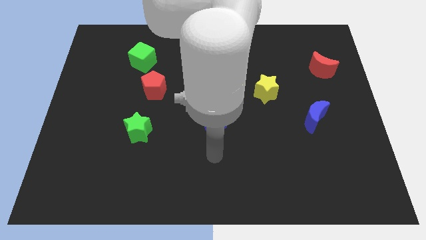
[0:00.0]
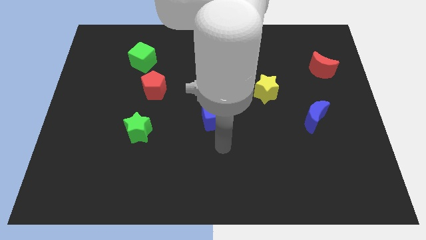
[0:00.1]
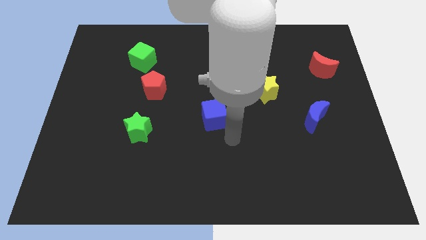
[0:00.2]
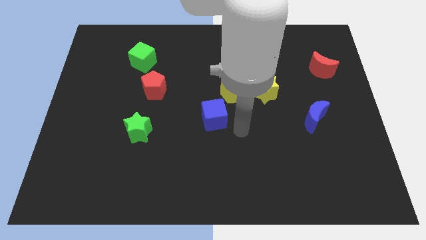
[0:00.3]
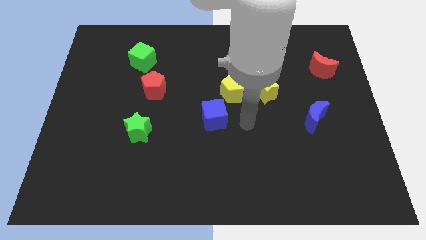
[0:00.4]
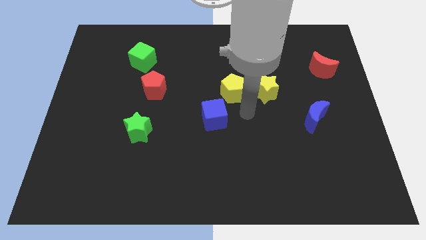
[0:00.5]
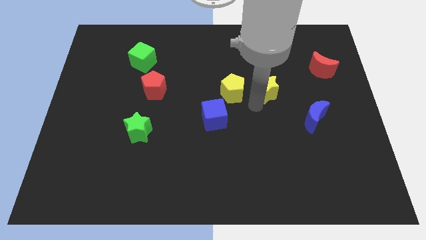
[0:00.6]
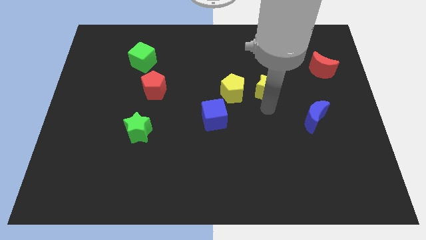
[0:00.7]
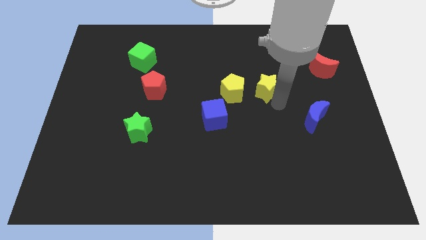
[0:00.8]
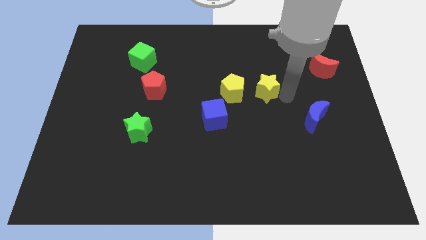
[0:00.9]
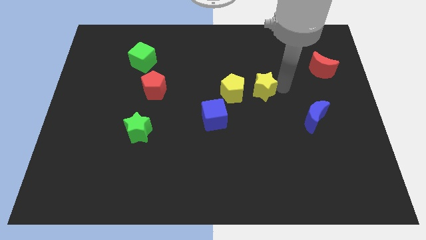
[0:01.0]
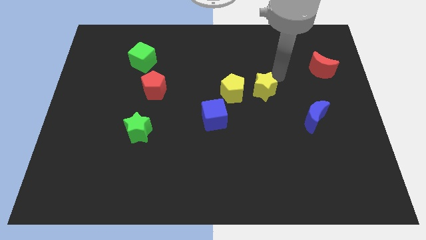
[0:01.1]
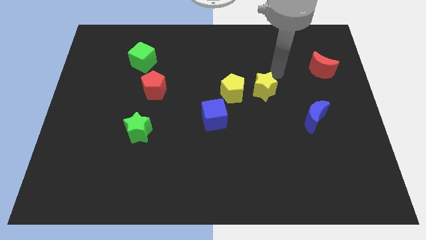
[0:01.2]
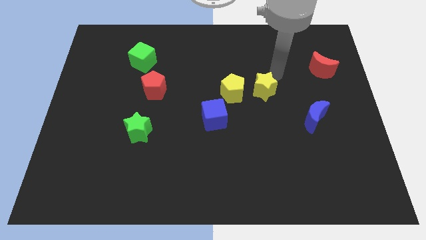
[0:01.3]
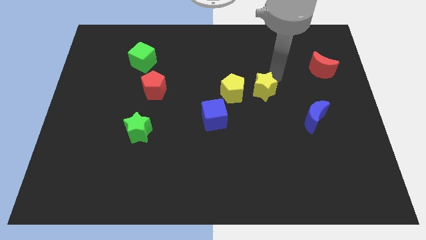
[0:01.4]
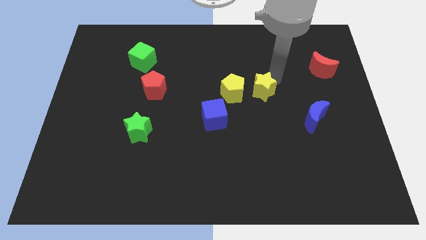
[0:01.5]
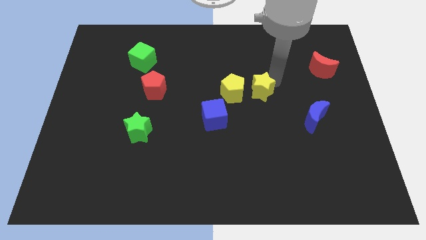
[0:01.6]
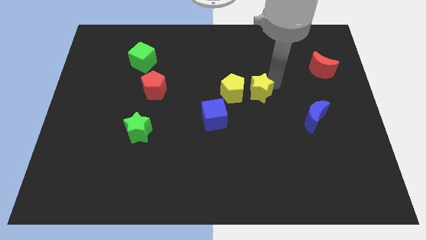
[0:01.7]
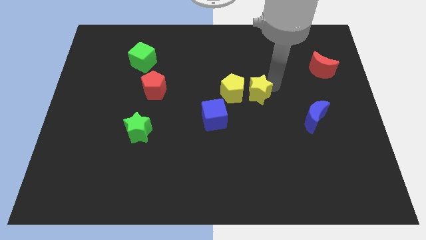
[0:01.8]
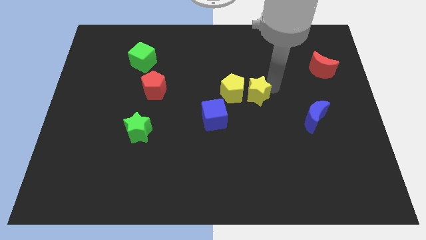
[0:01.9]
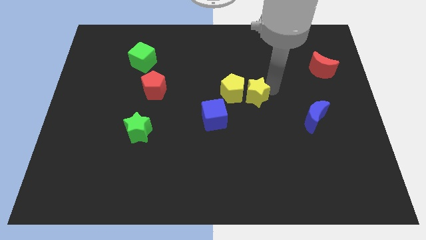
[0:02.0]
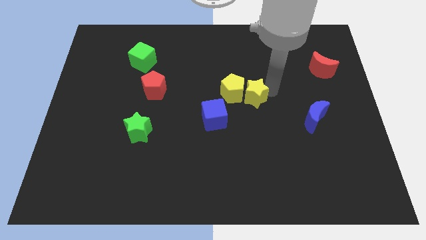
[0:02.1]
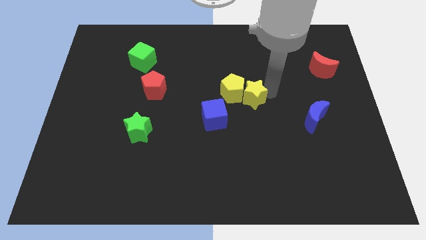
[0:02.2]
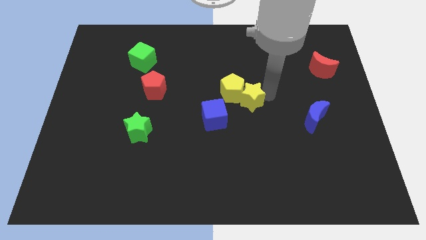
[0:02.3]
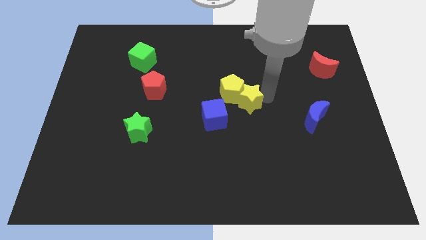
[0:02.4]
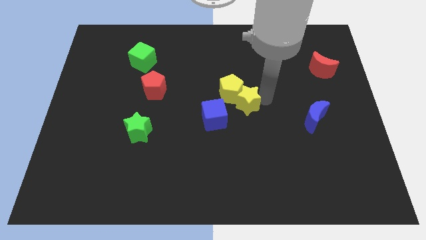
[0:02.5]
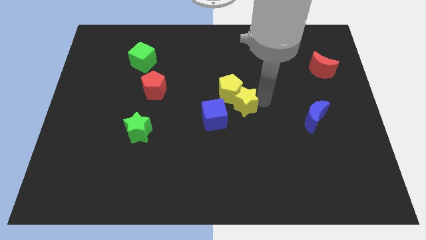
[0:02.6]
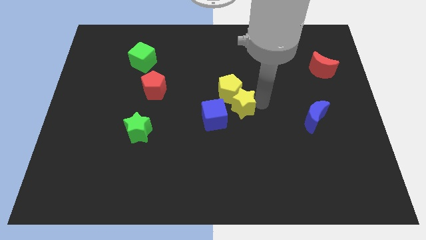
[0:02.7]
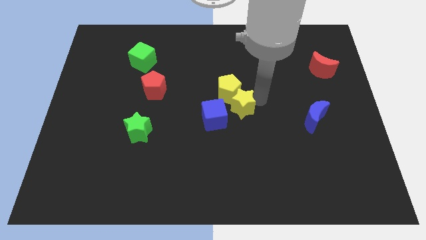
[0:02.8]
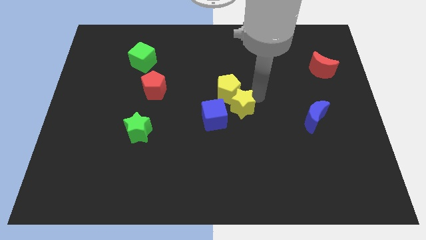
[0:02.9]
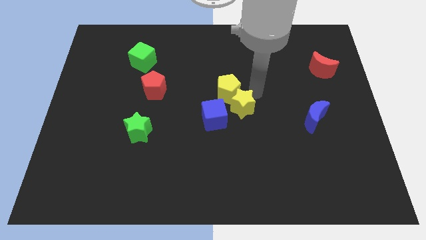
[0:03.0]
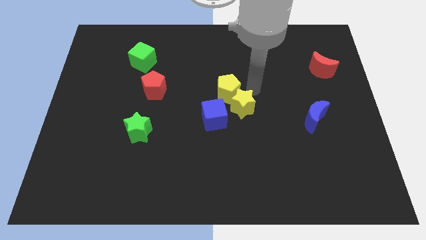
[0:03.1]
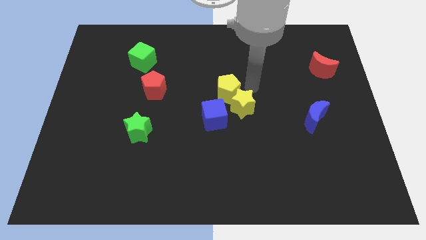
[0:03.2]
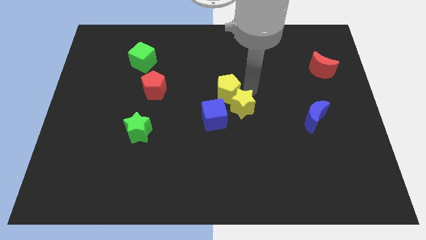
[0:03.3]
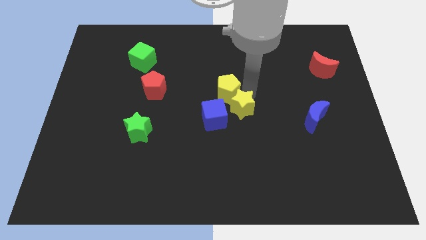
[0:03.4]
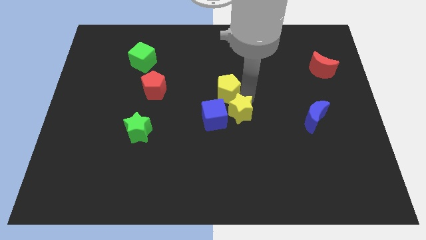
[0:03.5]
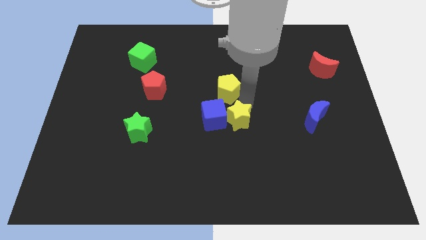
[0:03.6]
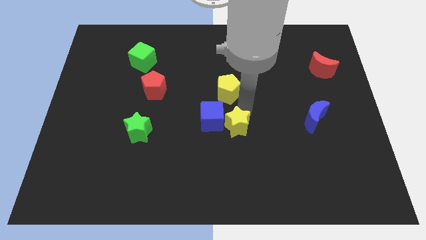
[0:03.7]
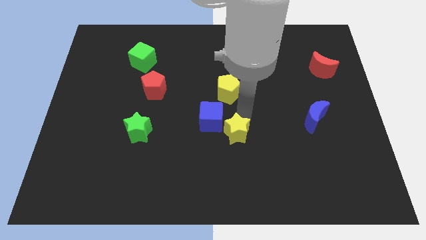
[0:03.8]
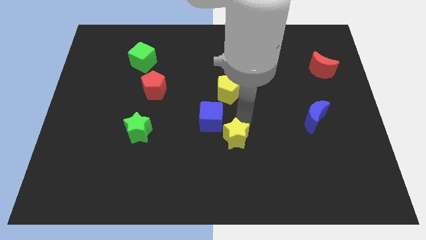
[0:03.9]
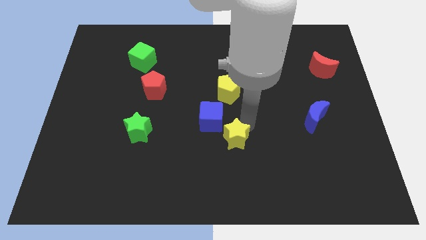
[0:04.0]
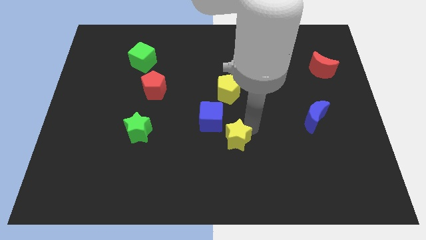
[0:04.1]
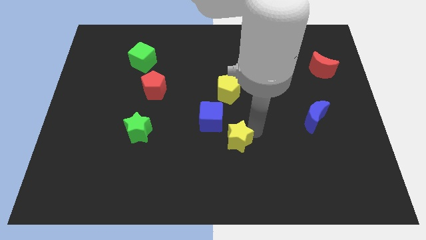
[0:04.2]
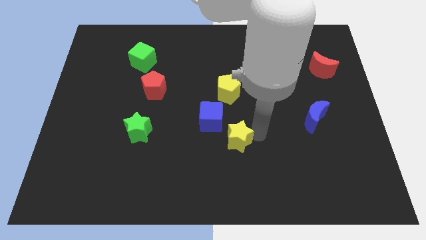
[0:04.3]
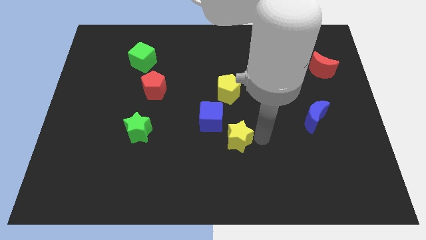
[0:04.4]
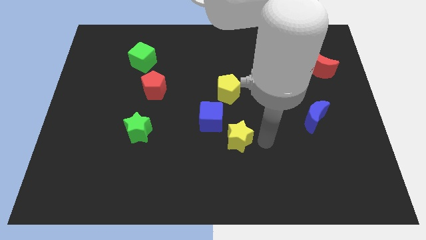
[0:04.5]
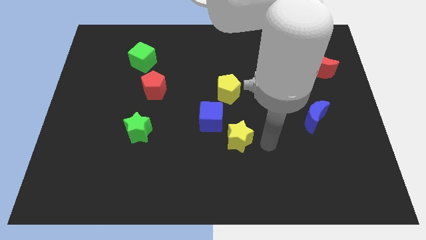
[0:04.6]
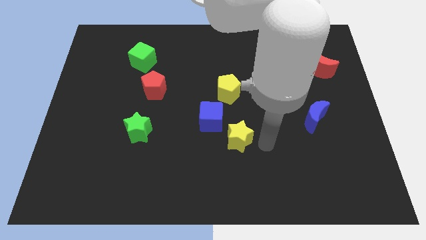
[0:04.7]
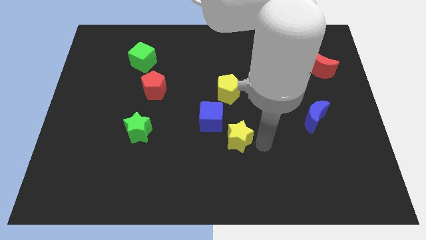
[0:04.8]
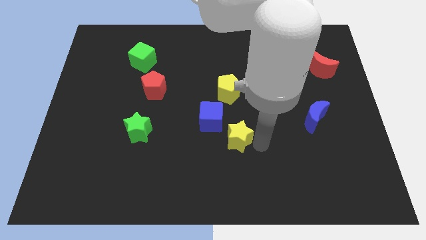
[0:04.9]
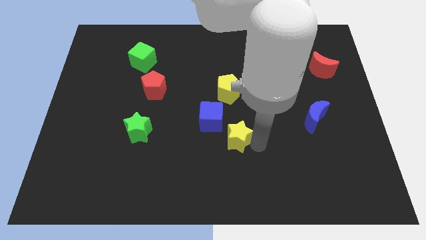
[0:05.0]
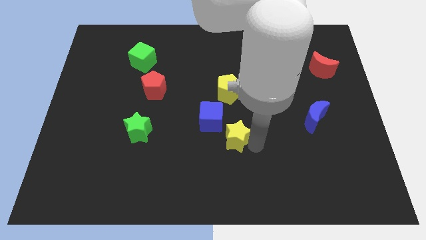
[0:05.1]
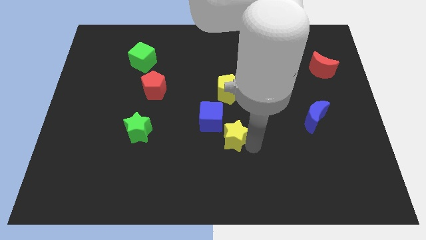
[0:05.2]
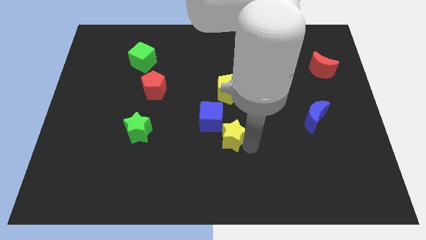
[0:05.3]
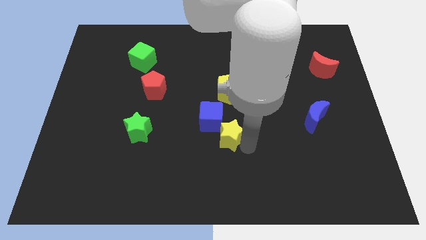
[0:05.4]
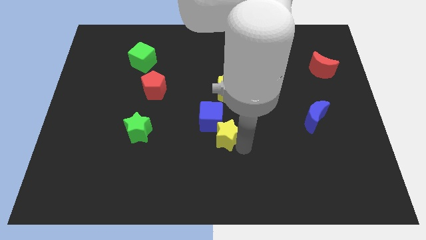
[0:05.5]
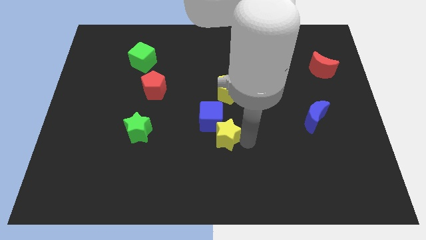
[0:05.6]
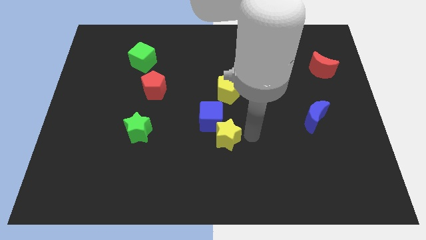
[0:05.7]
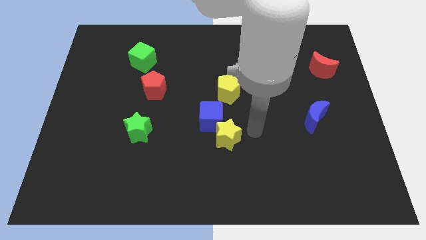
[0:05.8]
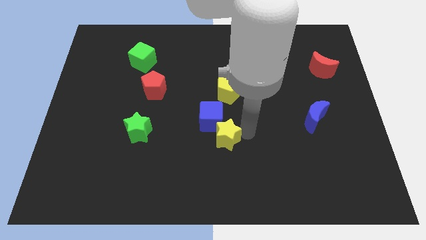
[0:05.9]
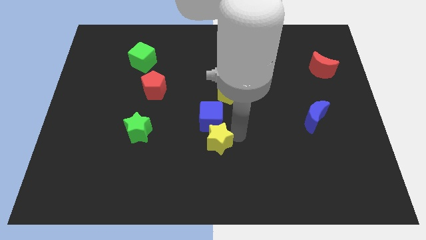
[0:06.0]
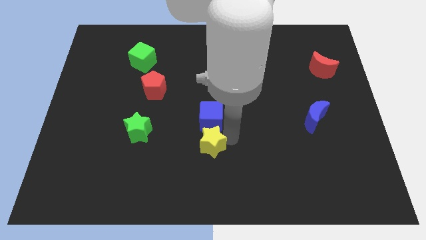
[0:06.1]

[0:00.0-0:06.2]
push the yellow star downwards and then left

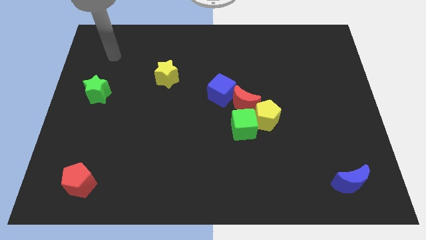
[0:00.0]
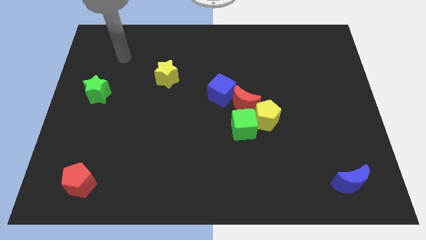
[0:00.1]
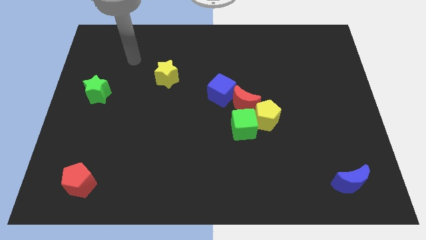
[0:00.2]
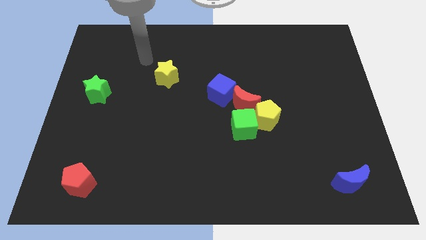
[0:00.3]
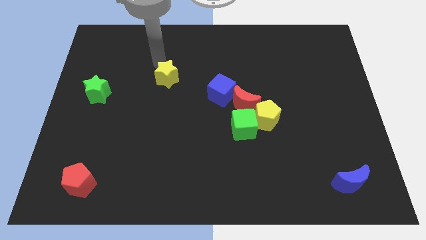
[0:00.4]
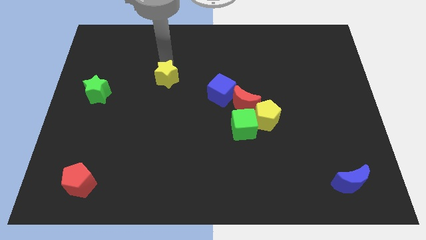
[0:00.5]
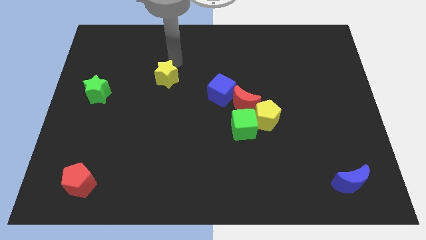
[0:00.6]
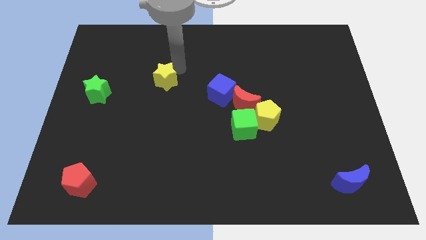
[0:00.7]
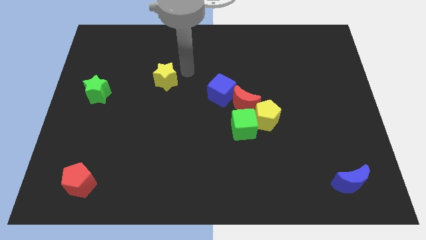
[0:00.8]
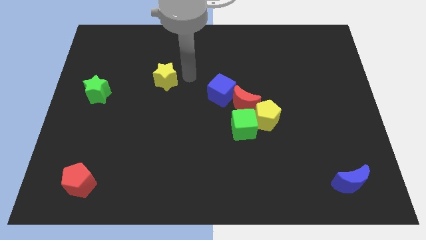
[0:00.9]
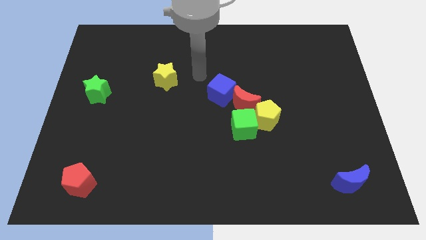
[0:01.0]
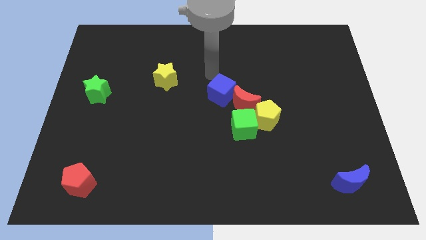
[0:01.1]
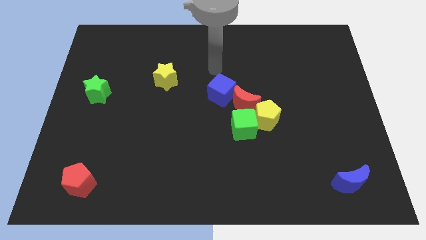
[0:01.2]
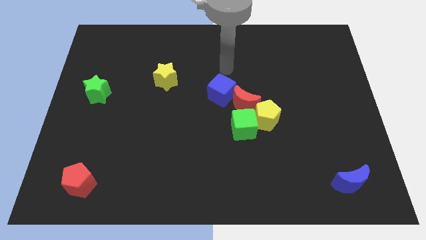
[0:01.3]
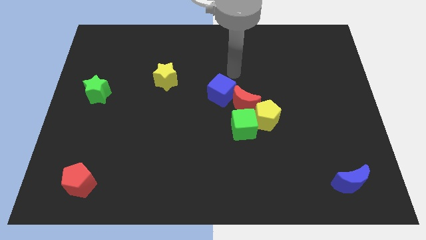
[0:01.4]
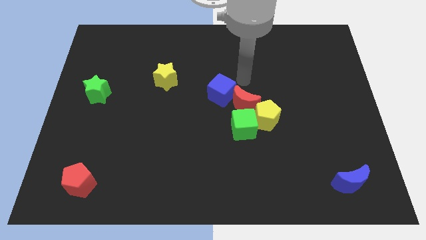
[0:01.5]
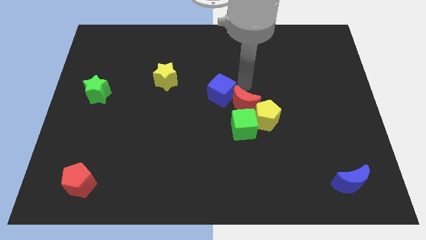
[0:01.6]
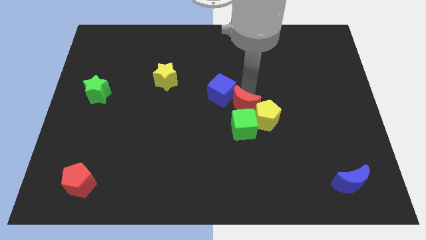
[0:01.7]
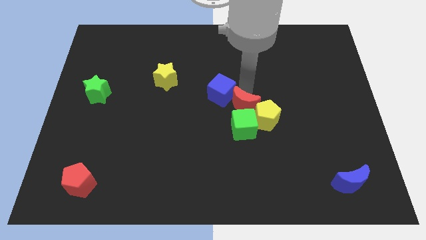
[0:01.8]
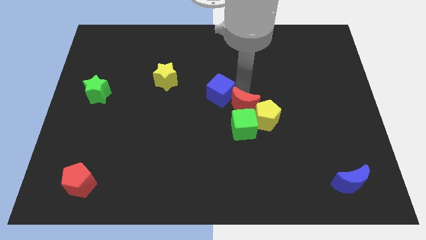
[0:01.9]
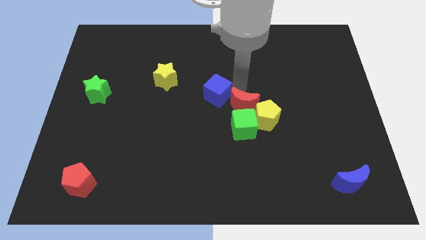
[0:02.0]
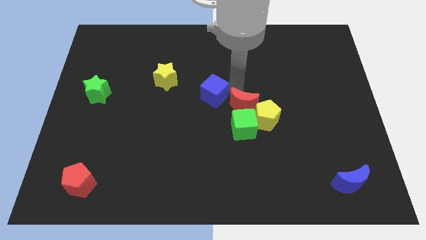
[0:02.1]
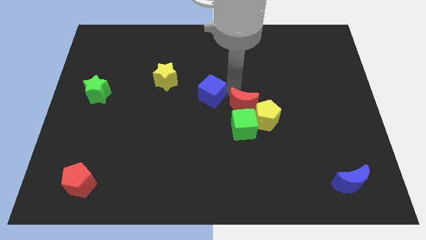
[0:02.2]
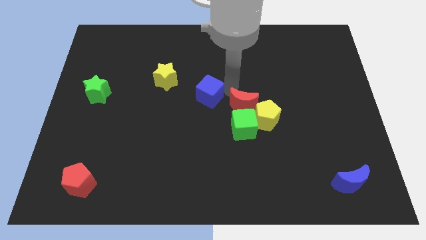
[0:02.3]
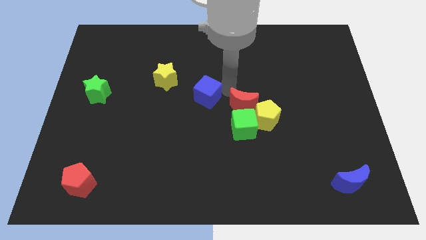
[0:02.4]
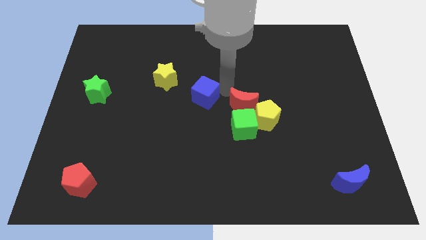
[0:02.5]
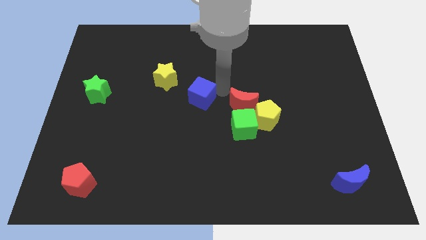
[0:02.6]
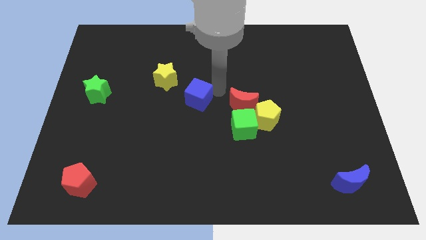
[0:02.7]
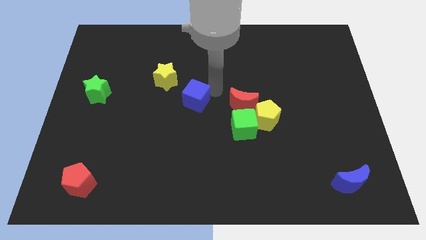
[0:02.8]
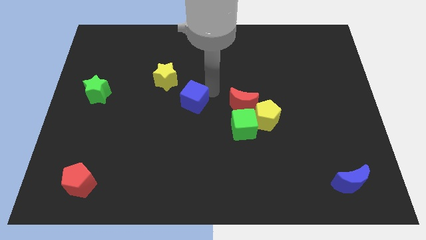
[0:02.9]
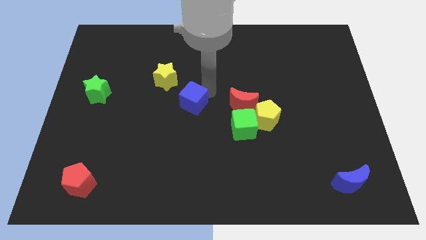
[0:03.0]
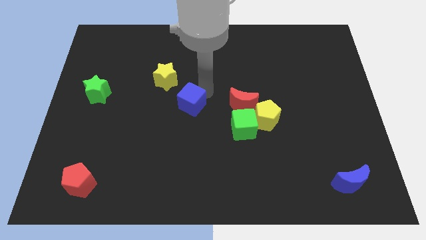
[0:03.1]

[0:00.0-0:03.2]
slightly push the blue cube left
